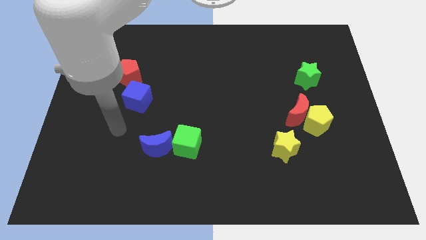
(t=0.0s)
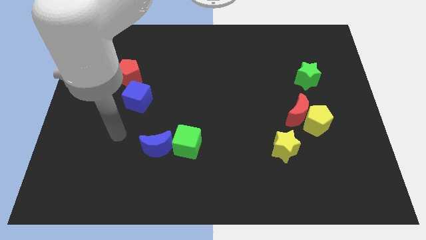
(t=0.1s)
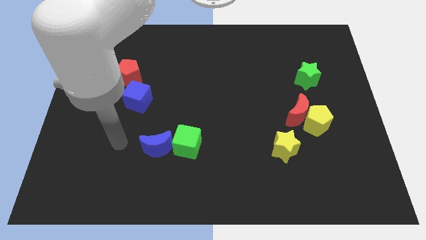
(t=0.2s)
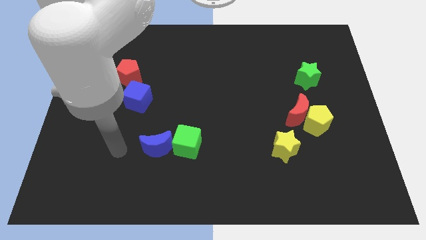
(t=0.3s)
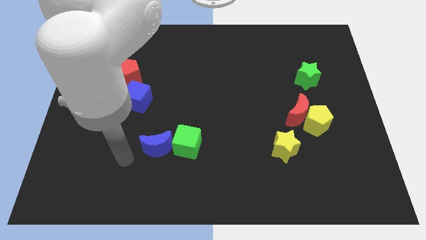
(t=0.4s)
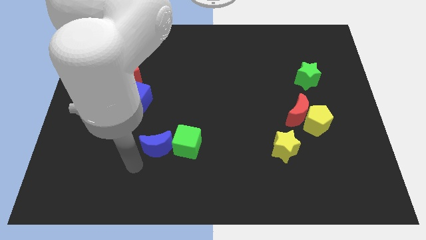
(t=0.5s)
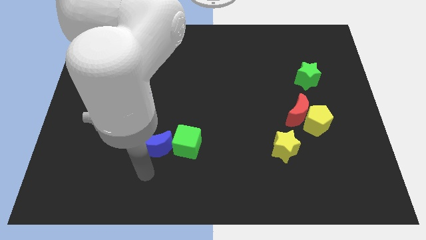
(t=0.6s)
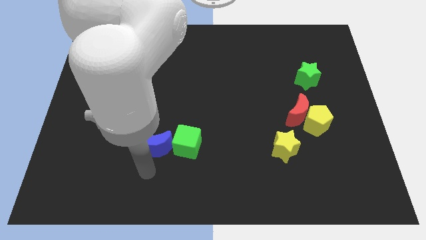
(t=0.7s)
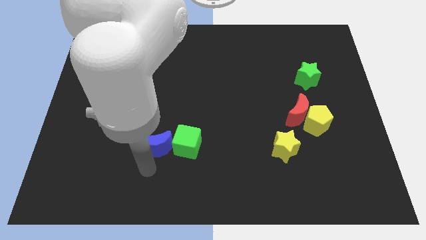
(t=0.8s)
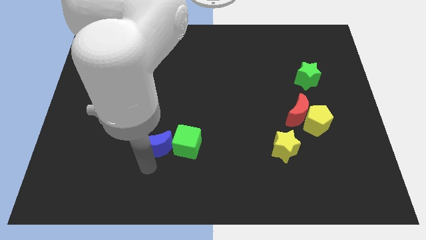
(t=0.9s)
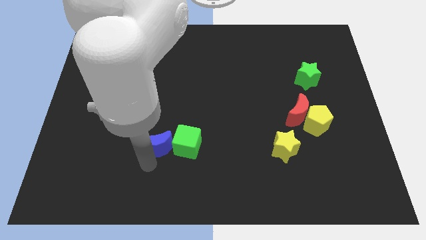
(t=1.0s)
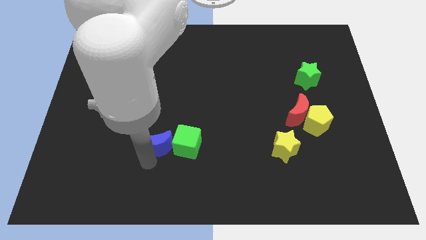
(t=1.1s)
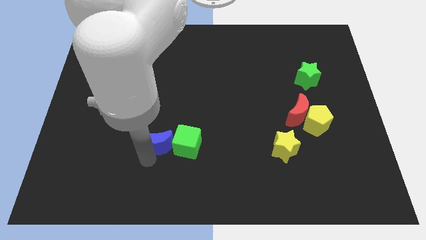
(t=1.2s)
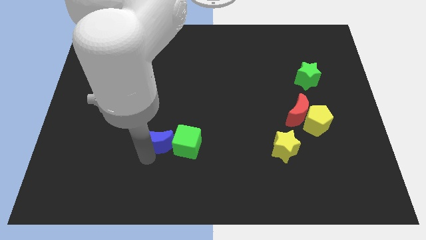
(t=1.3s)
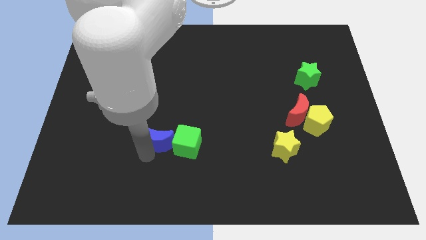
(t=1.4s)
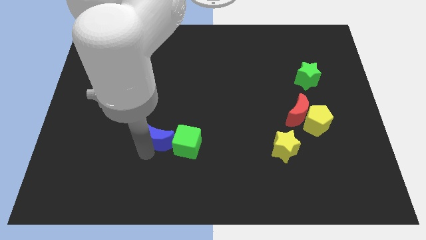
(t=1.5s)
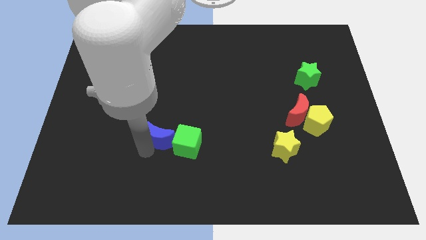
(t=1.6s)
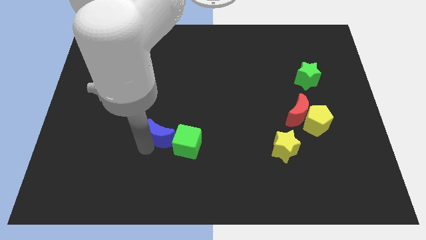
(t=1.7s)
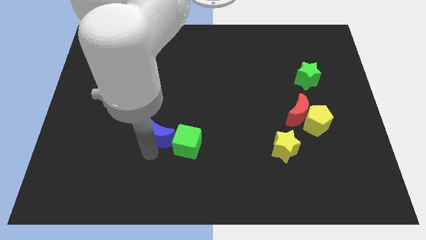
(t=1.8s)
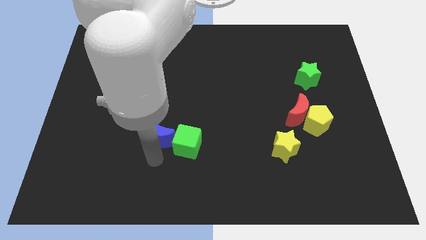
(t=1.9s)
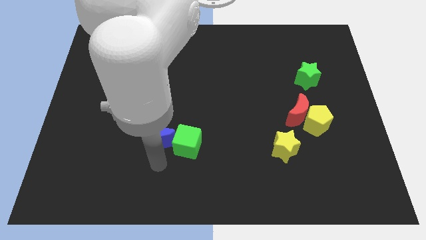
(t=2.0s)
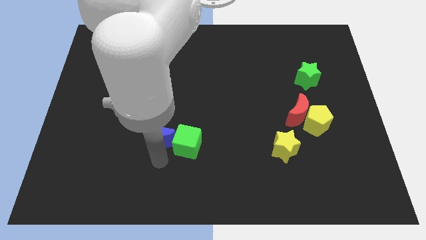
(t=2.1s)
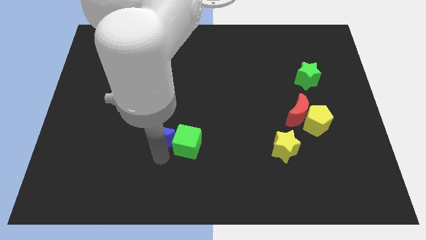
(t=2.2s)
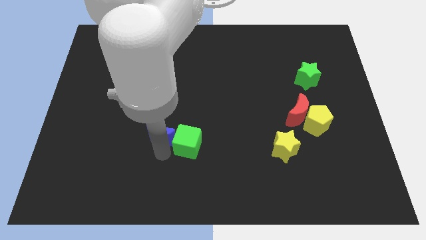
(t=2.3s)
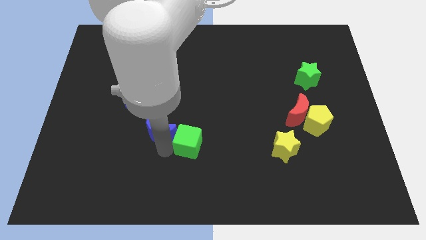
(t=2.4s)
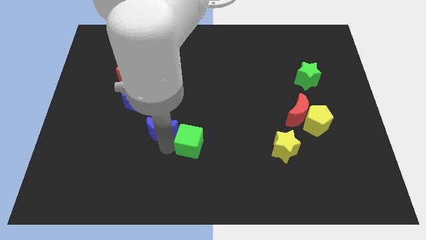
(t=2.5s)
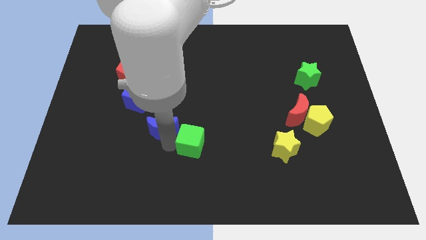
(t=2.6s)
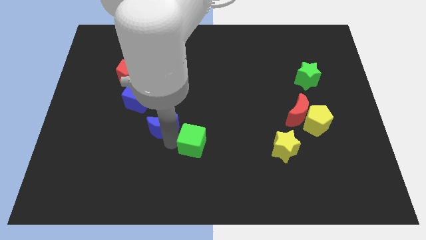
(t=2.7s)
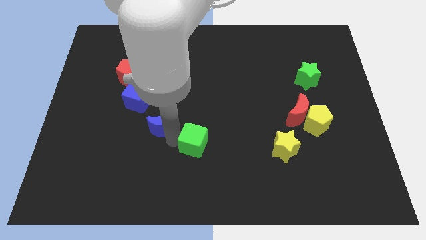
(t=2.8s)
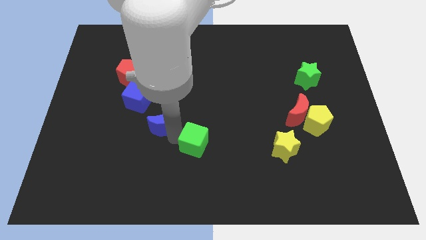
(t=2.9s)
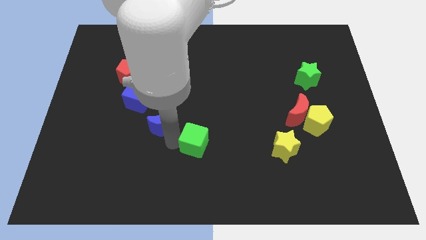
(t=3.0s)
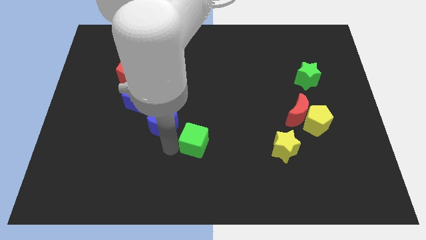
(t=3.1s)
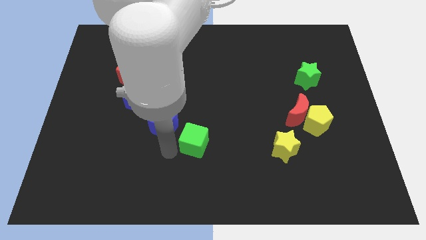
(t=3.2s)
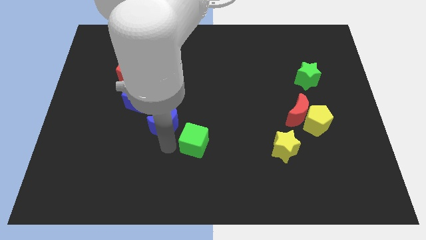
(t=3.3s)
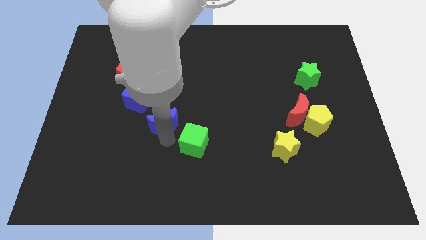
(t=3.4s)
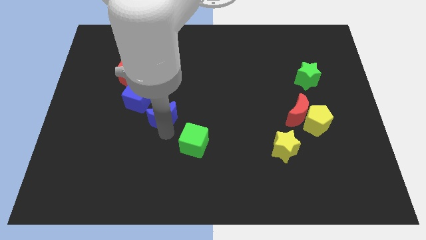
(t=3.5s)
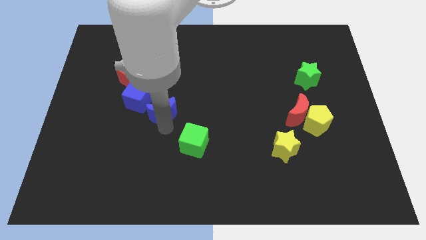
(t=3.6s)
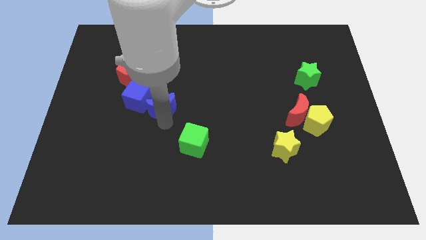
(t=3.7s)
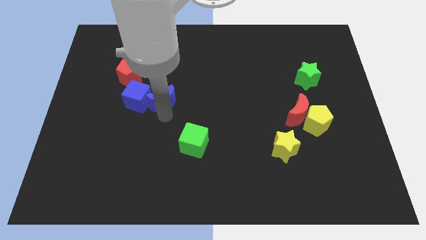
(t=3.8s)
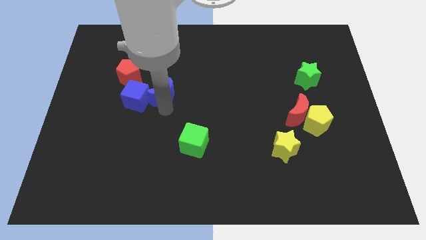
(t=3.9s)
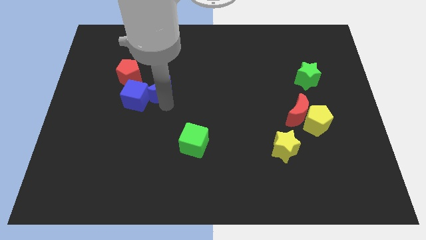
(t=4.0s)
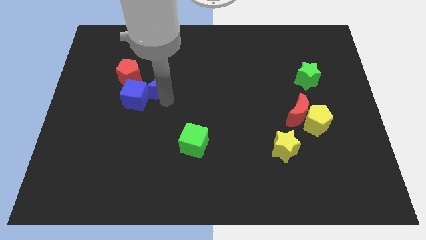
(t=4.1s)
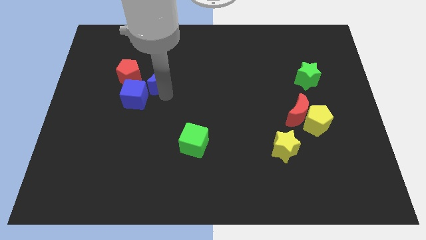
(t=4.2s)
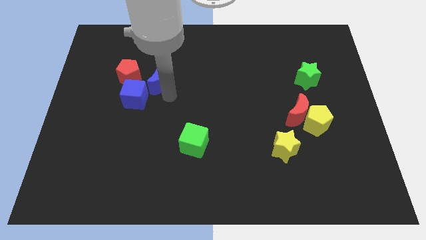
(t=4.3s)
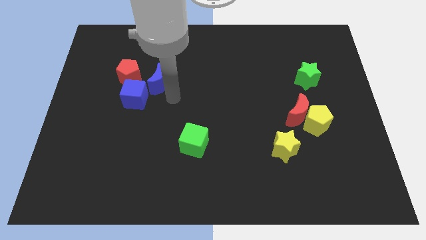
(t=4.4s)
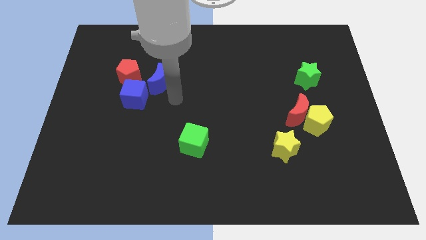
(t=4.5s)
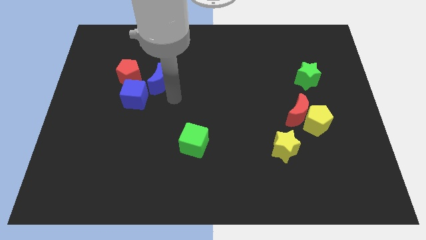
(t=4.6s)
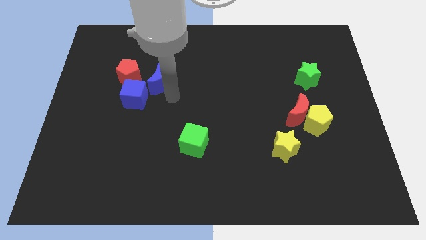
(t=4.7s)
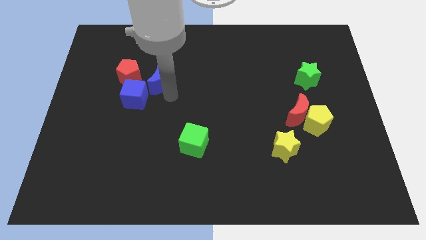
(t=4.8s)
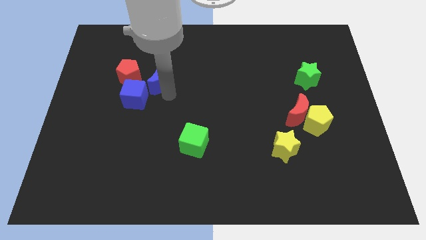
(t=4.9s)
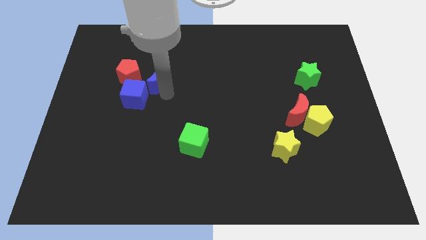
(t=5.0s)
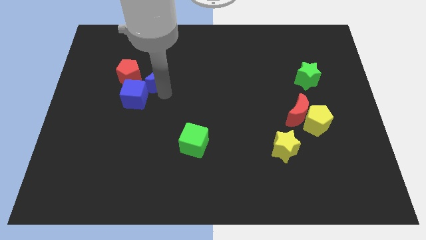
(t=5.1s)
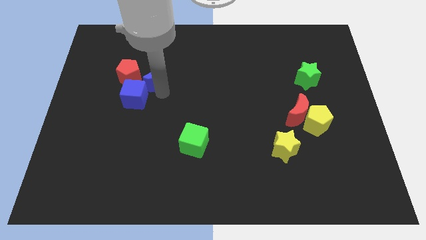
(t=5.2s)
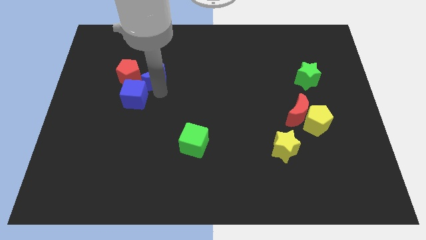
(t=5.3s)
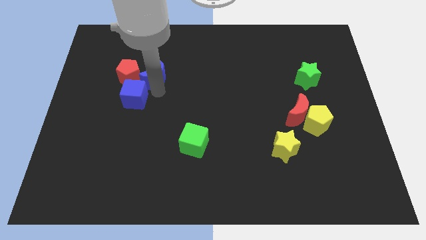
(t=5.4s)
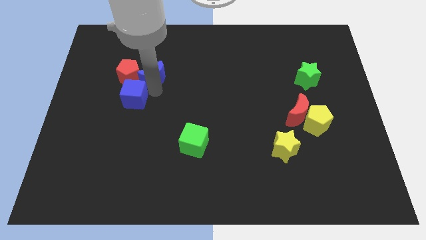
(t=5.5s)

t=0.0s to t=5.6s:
slide the blue moon to the top right side of the red pentagon
